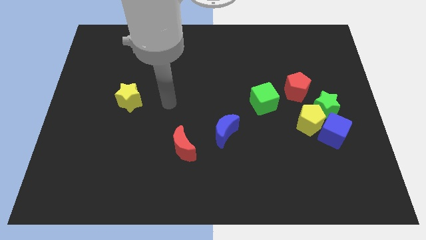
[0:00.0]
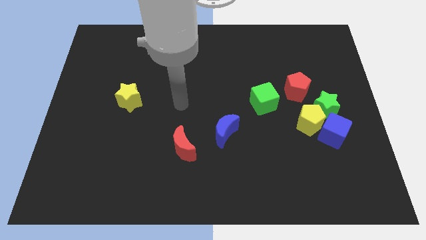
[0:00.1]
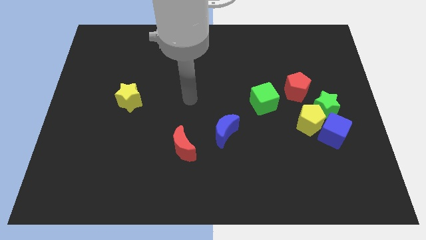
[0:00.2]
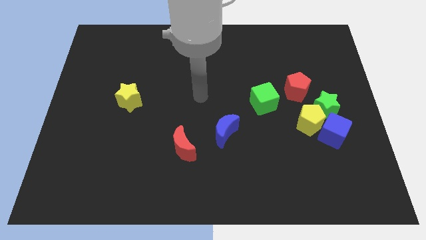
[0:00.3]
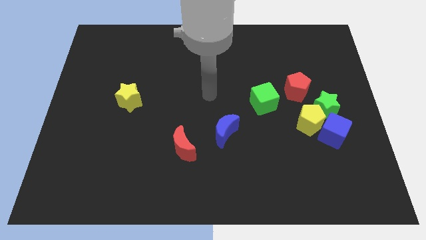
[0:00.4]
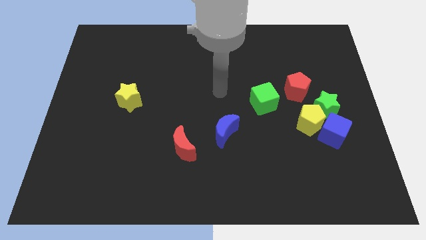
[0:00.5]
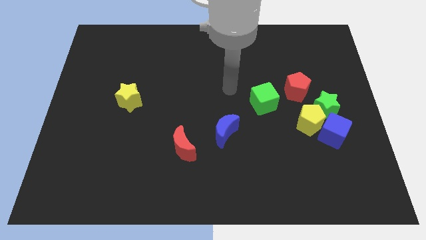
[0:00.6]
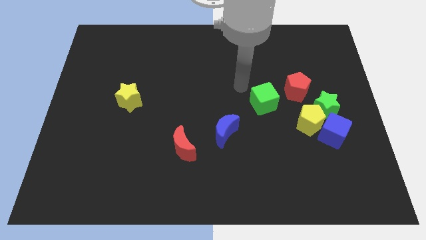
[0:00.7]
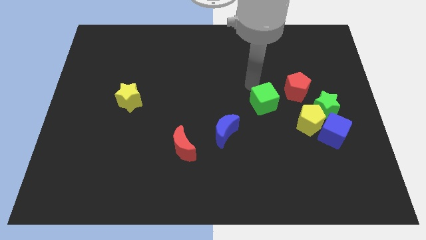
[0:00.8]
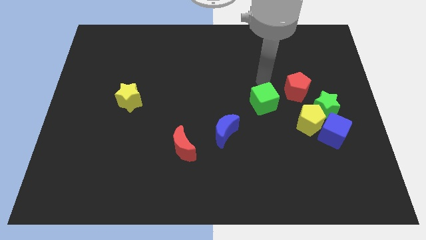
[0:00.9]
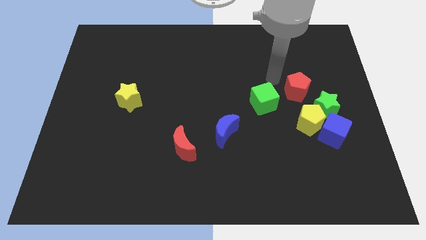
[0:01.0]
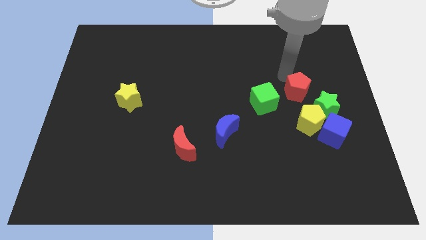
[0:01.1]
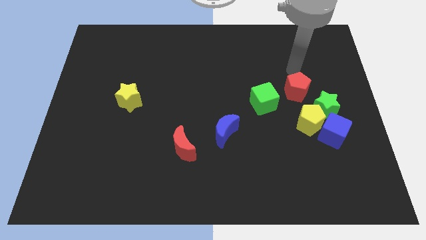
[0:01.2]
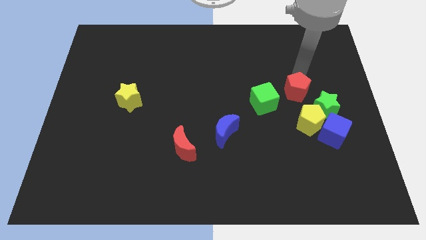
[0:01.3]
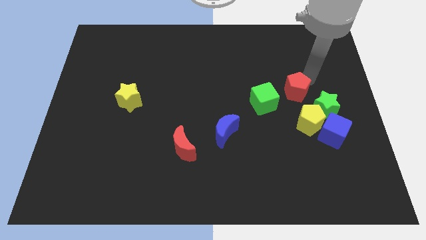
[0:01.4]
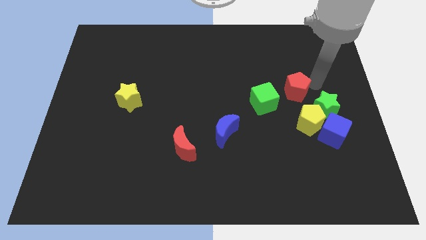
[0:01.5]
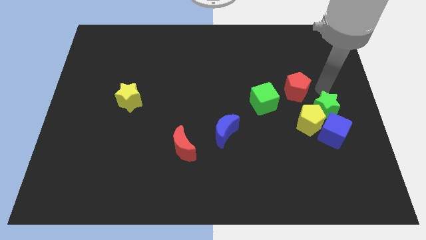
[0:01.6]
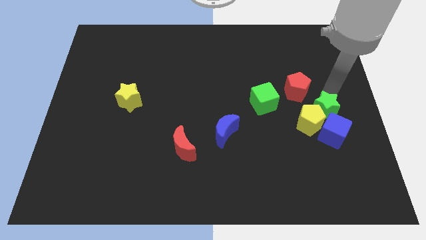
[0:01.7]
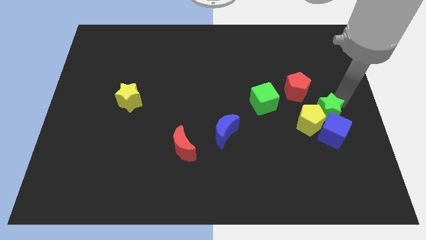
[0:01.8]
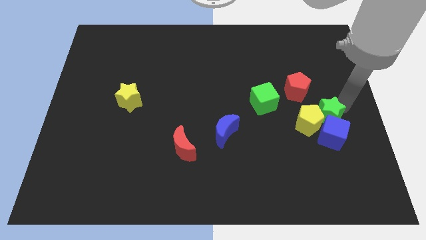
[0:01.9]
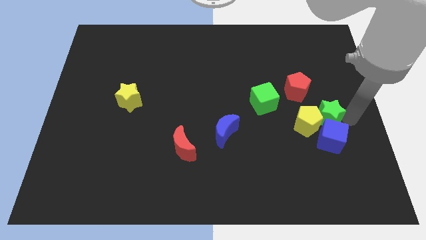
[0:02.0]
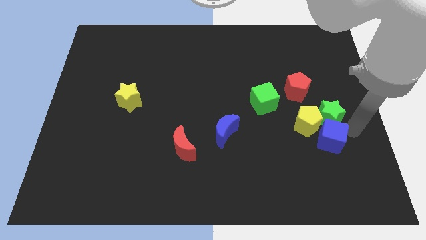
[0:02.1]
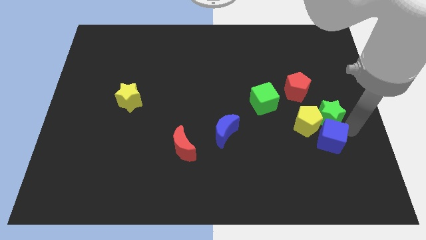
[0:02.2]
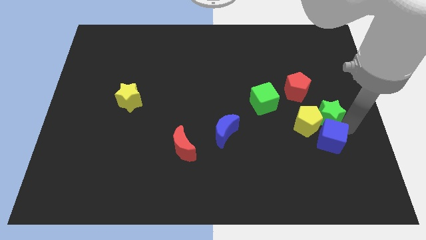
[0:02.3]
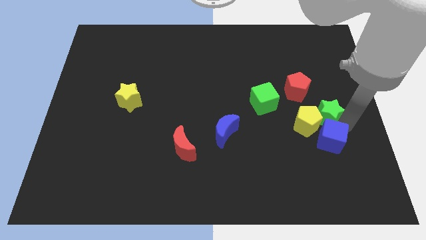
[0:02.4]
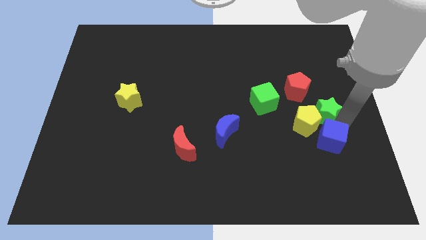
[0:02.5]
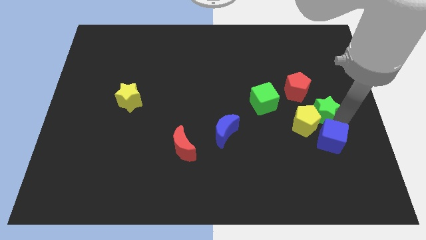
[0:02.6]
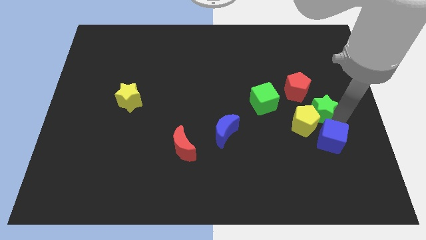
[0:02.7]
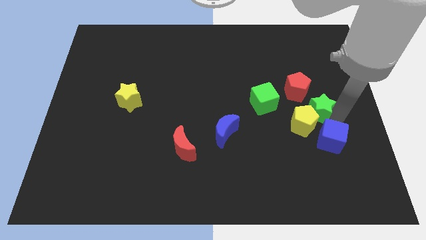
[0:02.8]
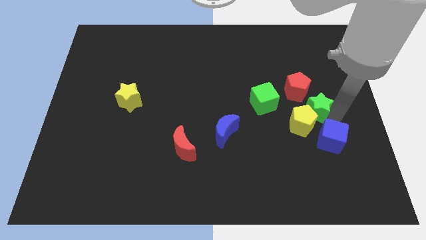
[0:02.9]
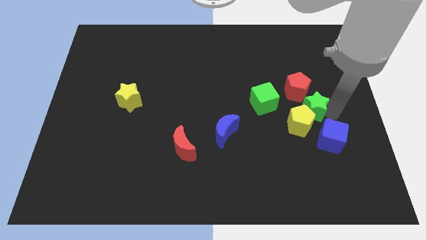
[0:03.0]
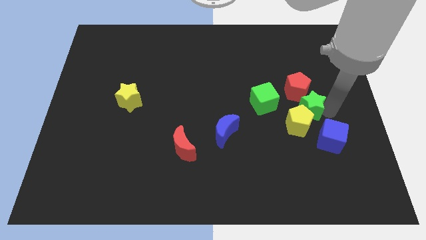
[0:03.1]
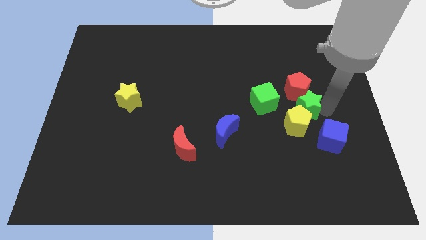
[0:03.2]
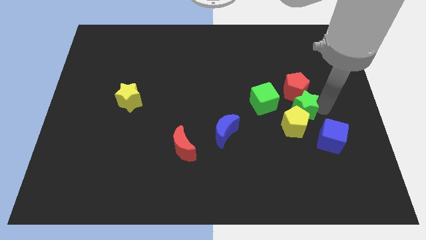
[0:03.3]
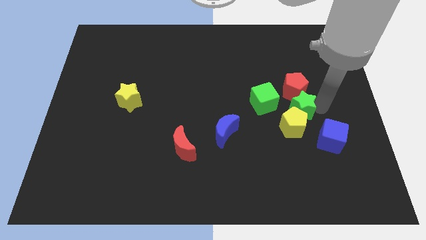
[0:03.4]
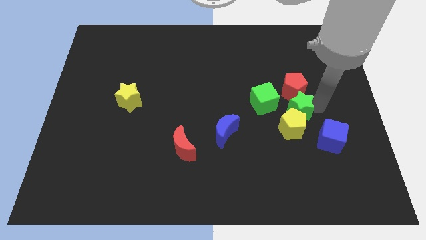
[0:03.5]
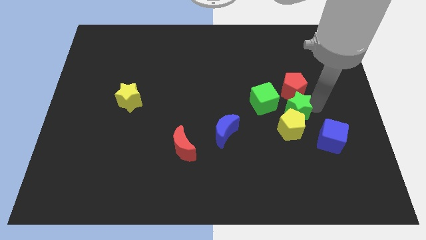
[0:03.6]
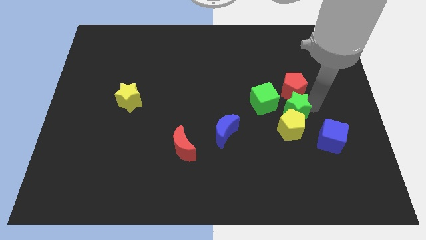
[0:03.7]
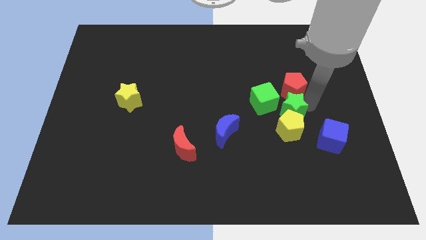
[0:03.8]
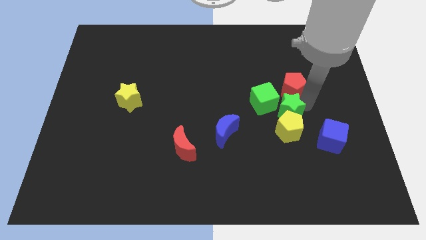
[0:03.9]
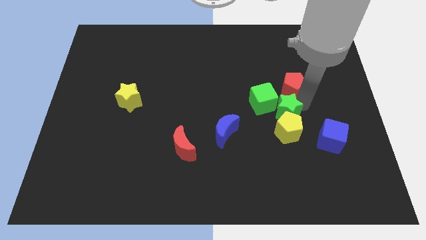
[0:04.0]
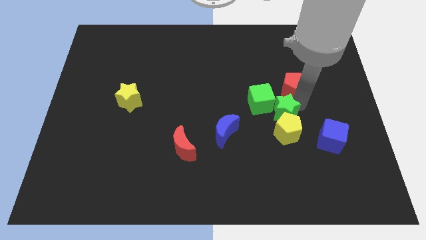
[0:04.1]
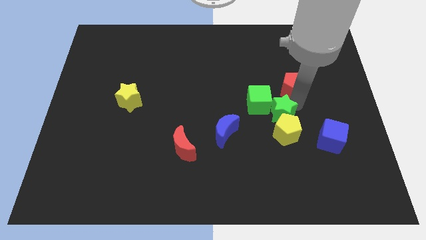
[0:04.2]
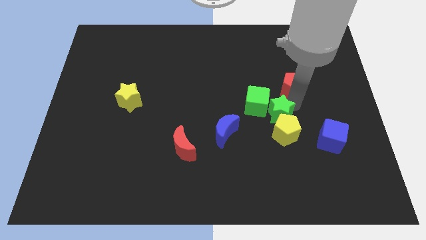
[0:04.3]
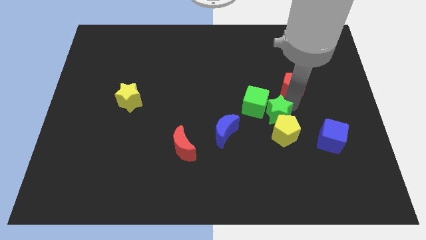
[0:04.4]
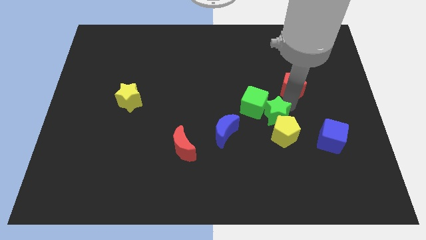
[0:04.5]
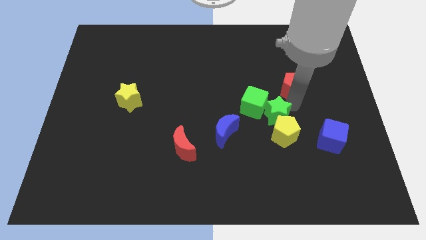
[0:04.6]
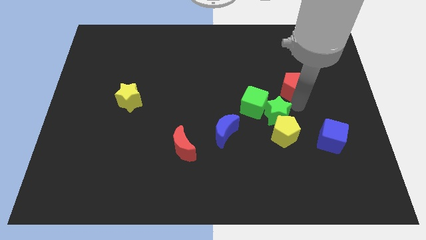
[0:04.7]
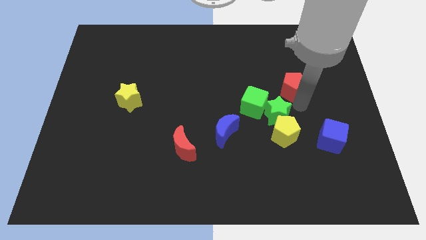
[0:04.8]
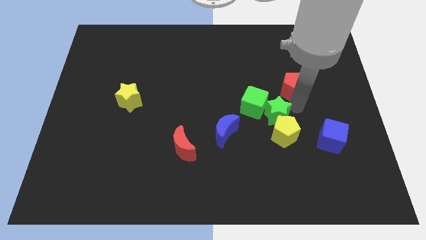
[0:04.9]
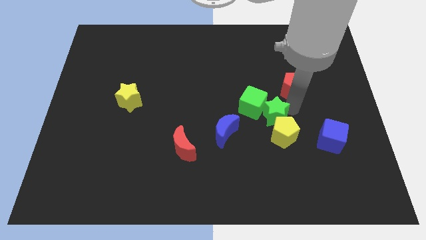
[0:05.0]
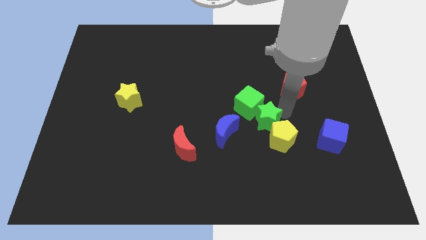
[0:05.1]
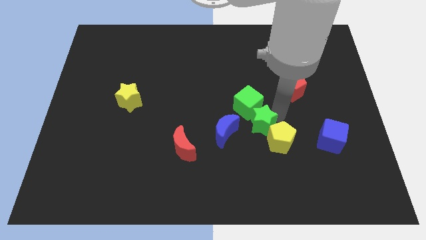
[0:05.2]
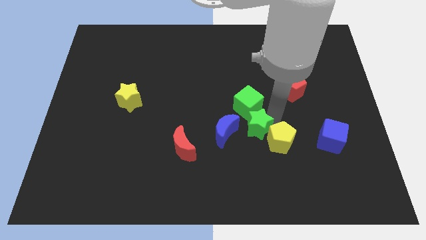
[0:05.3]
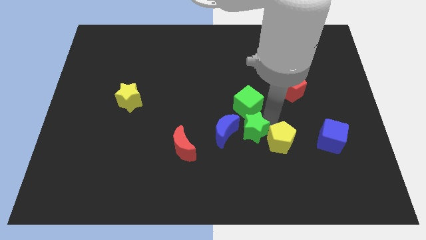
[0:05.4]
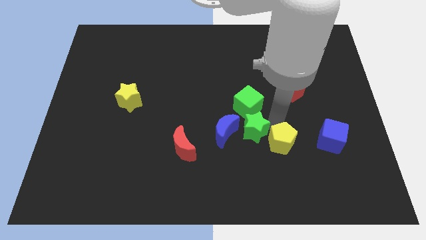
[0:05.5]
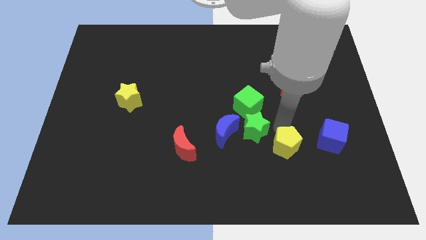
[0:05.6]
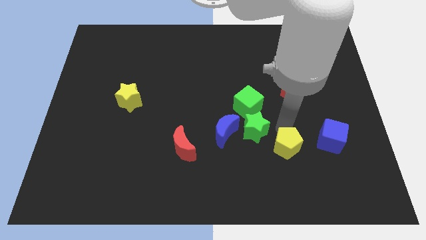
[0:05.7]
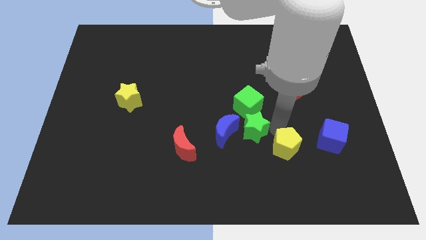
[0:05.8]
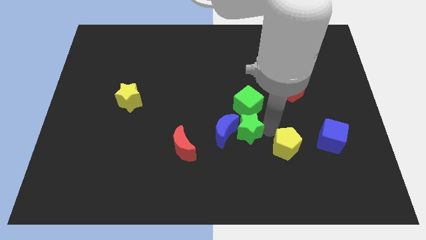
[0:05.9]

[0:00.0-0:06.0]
move the green star next to the blue moon

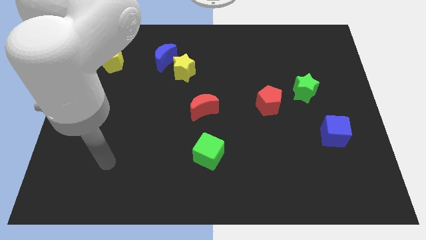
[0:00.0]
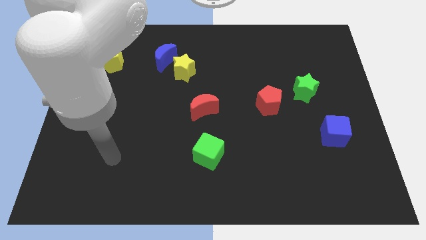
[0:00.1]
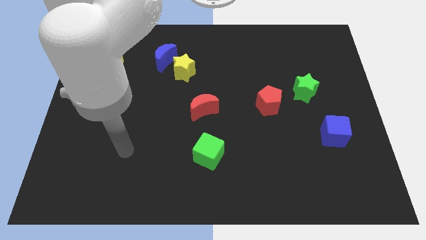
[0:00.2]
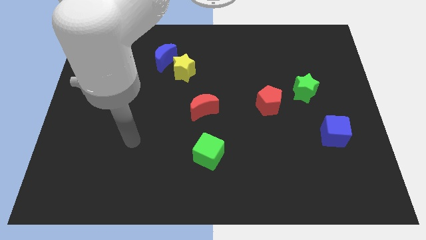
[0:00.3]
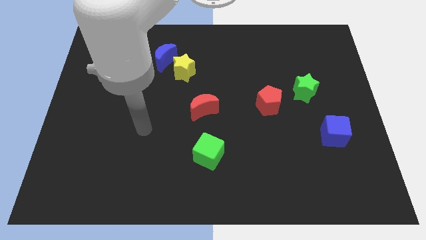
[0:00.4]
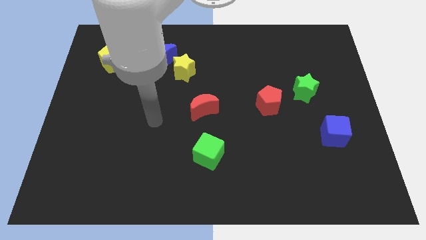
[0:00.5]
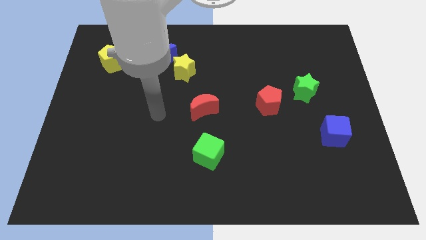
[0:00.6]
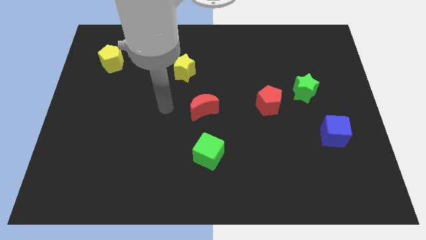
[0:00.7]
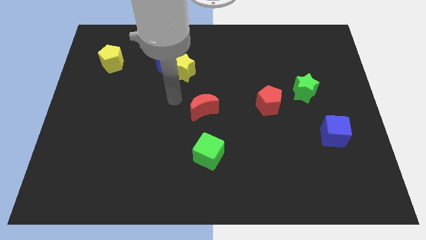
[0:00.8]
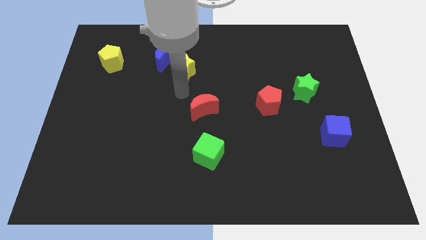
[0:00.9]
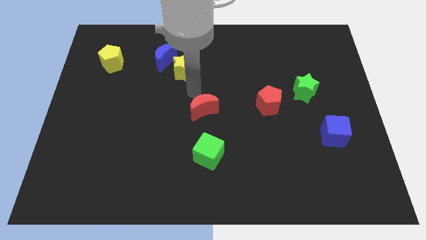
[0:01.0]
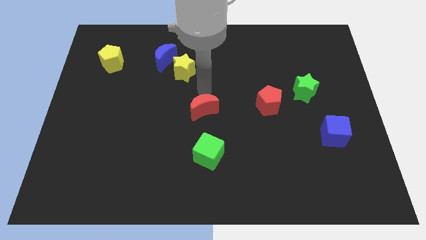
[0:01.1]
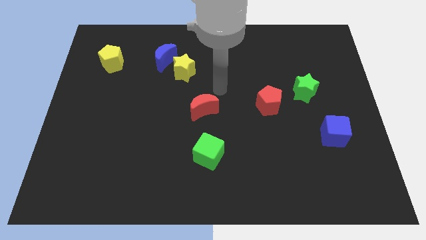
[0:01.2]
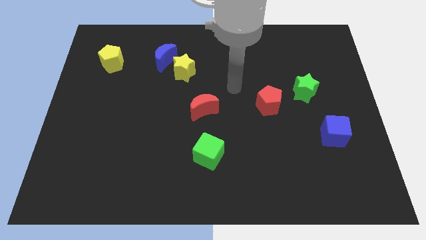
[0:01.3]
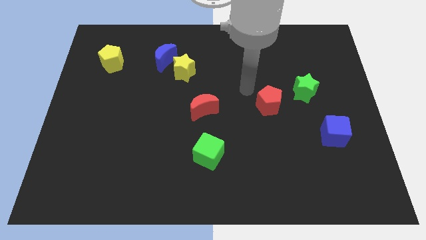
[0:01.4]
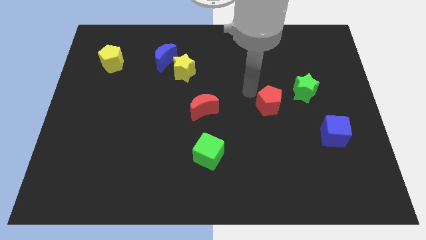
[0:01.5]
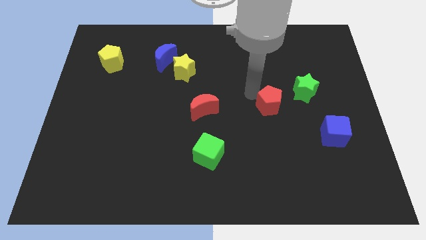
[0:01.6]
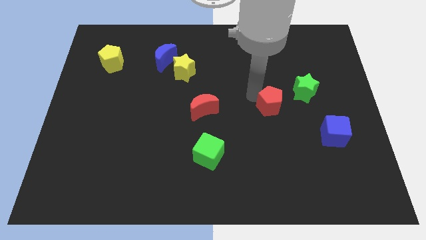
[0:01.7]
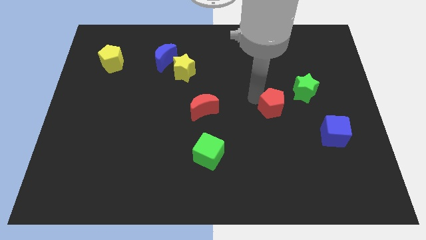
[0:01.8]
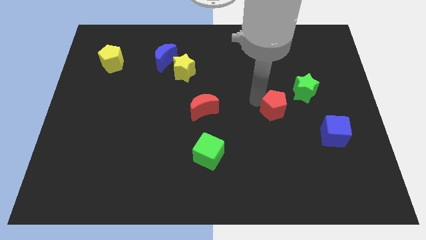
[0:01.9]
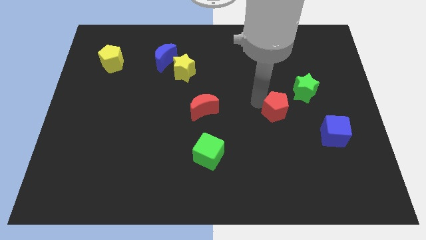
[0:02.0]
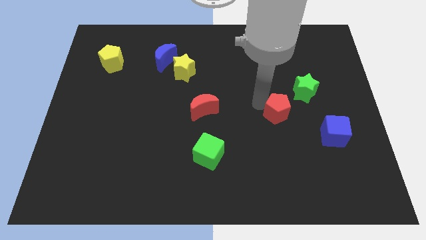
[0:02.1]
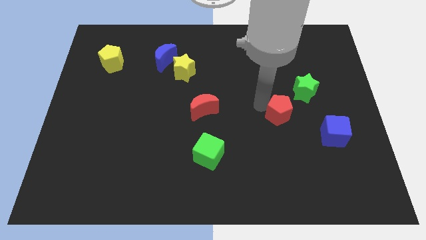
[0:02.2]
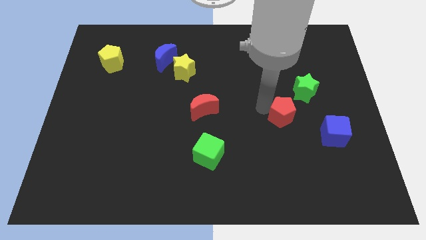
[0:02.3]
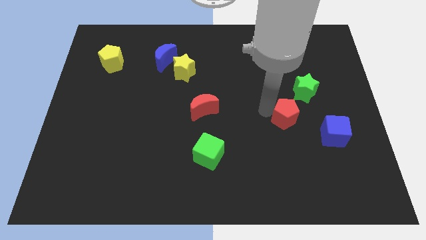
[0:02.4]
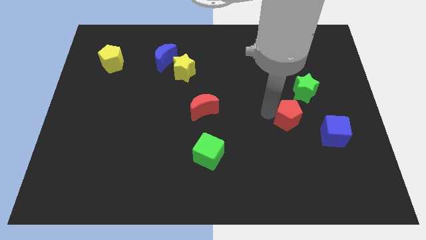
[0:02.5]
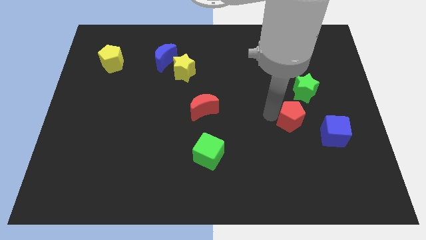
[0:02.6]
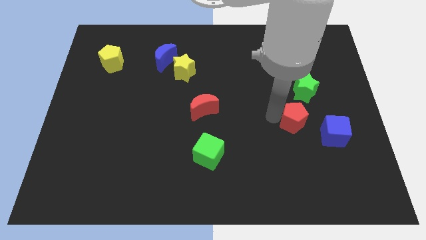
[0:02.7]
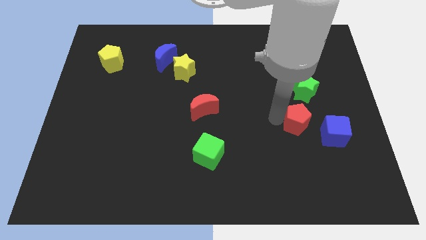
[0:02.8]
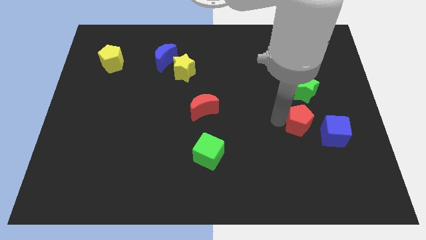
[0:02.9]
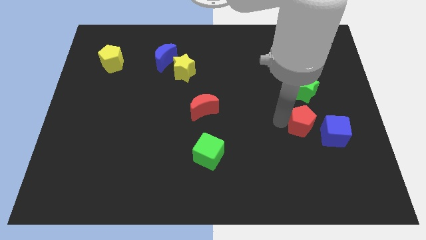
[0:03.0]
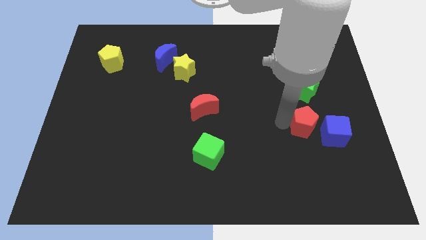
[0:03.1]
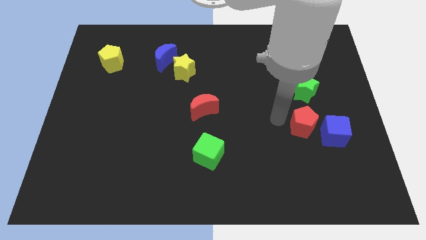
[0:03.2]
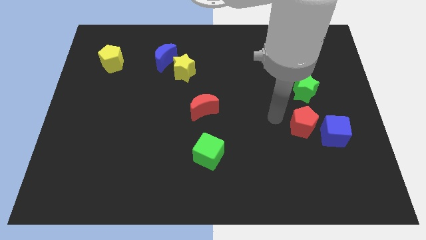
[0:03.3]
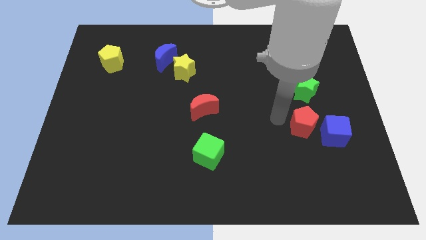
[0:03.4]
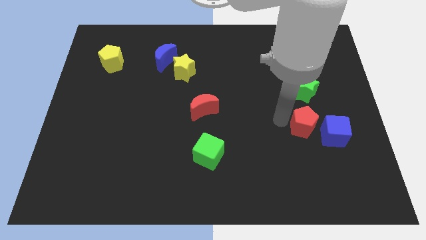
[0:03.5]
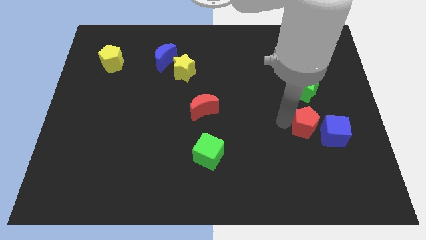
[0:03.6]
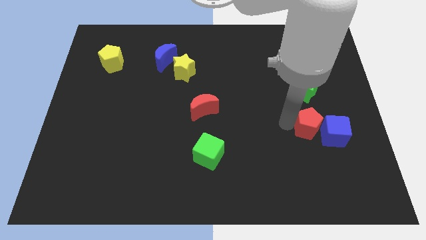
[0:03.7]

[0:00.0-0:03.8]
slide the red pentagon next to the blue cube
